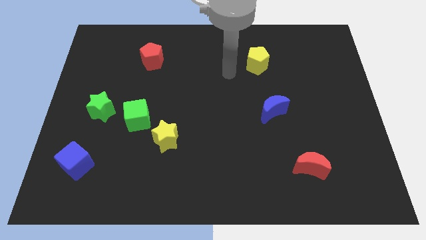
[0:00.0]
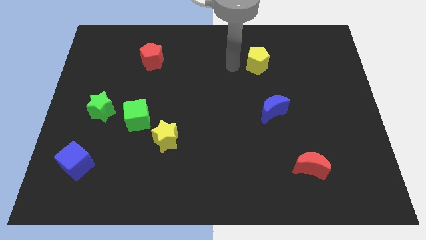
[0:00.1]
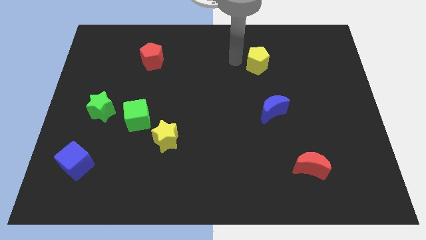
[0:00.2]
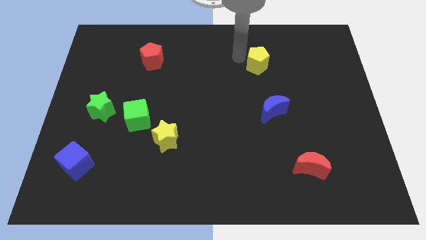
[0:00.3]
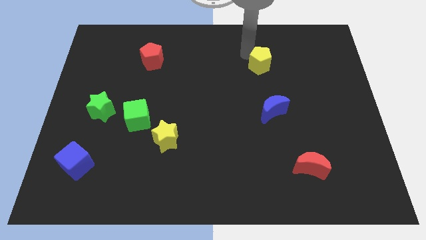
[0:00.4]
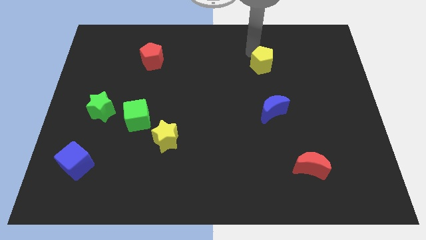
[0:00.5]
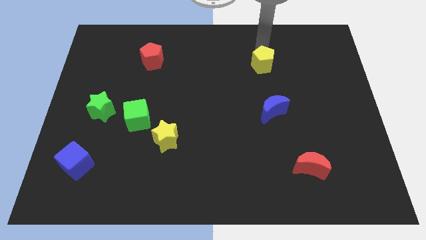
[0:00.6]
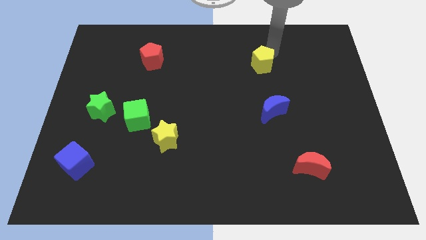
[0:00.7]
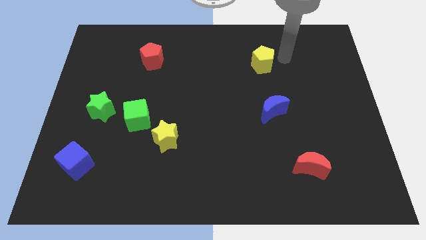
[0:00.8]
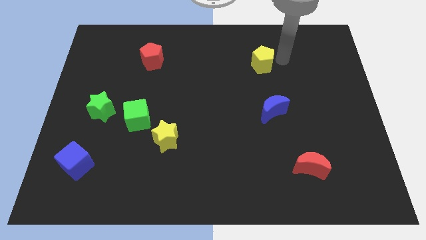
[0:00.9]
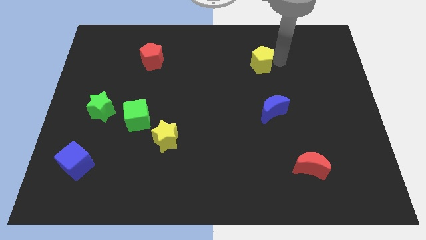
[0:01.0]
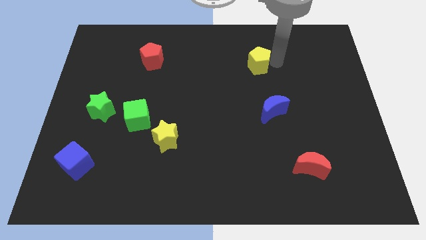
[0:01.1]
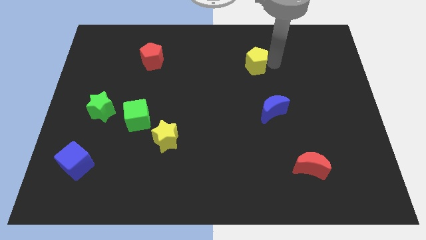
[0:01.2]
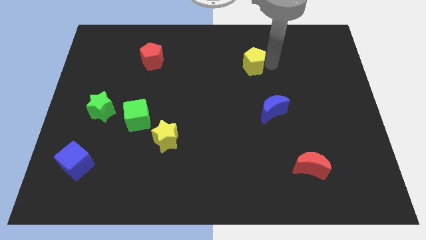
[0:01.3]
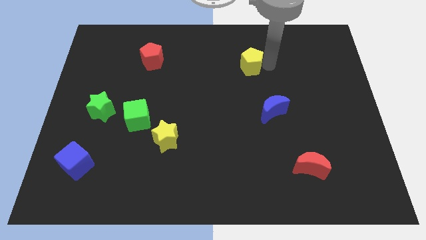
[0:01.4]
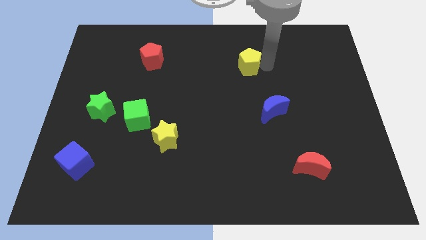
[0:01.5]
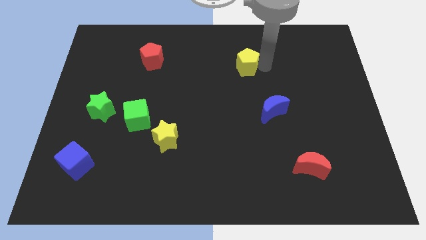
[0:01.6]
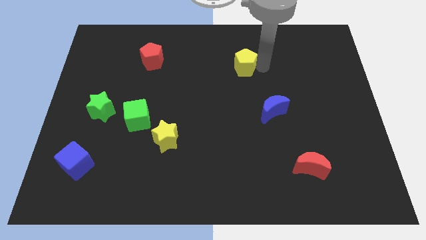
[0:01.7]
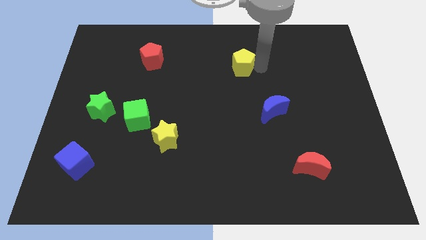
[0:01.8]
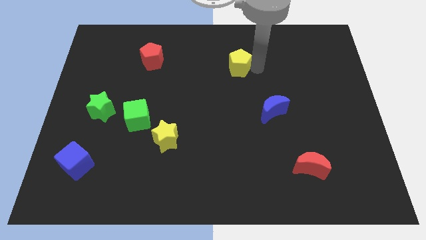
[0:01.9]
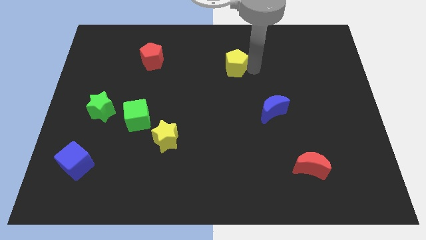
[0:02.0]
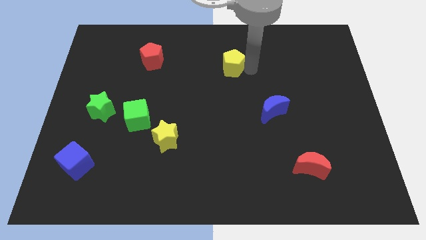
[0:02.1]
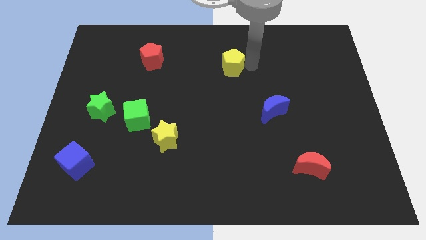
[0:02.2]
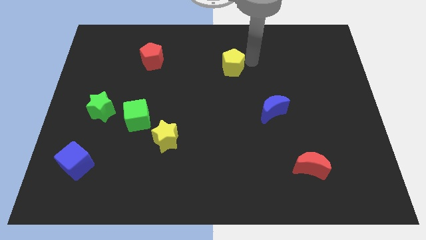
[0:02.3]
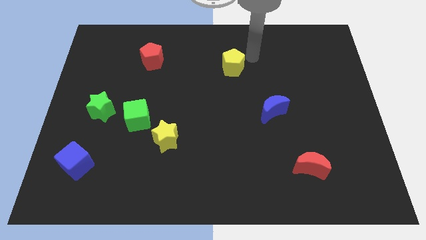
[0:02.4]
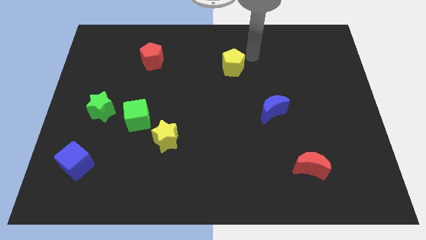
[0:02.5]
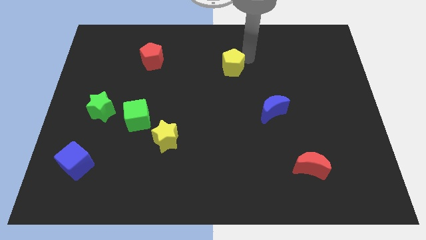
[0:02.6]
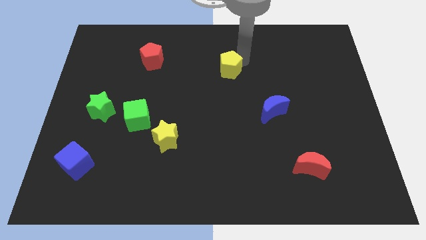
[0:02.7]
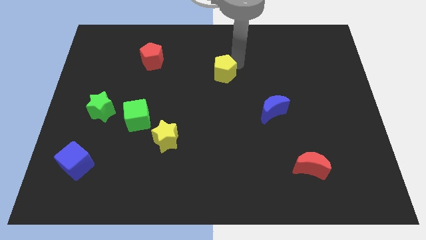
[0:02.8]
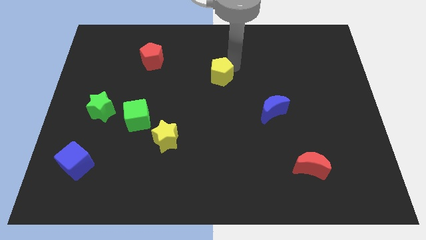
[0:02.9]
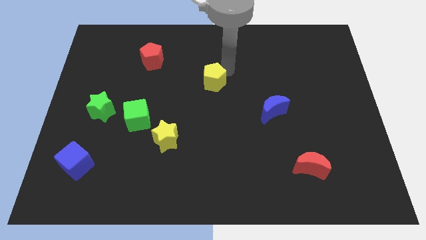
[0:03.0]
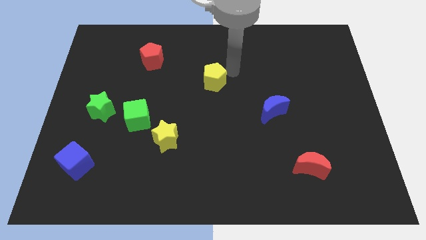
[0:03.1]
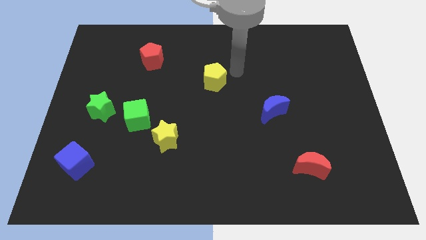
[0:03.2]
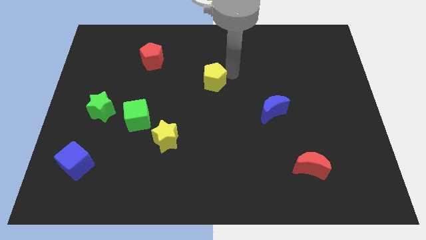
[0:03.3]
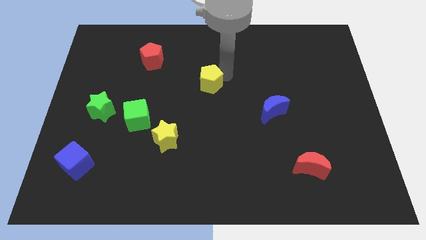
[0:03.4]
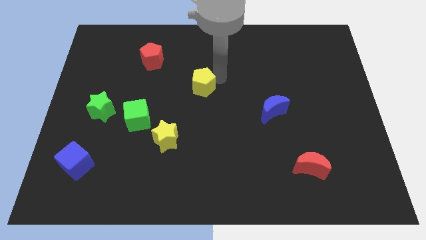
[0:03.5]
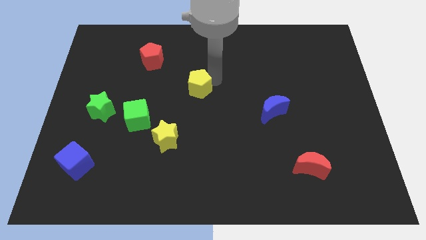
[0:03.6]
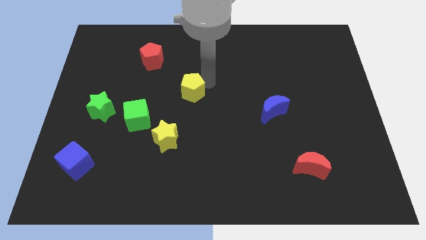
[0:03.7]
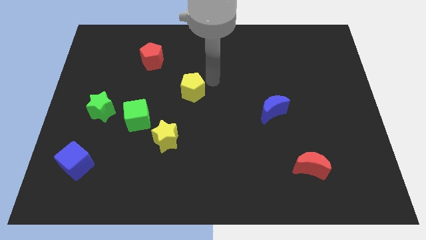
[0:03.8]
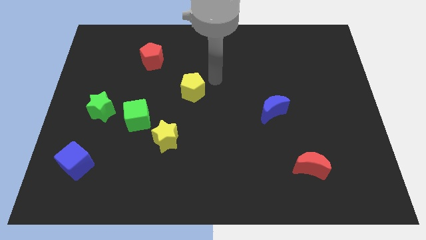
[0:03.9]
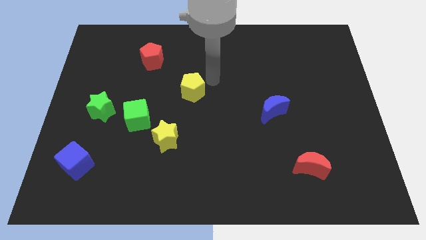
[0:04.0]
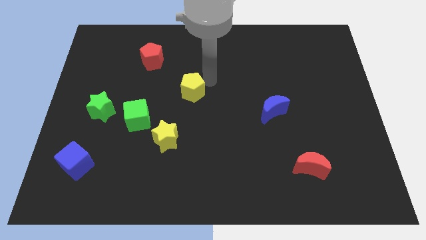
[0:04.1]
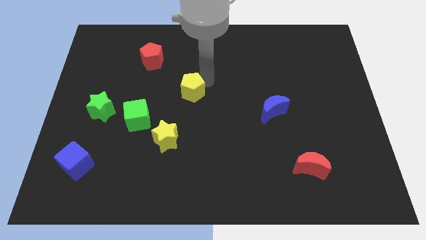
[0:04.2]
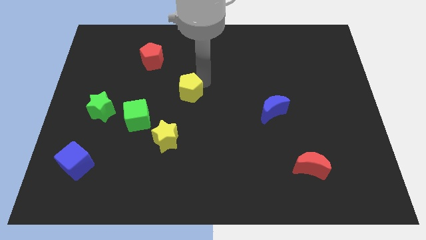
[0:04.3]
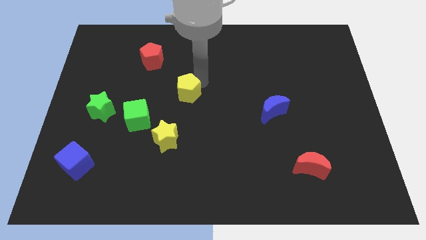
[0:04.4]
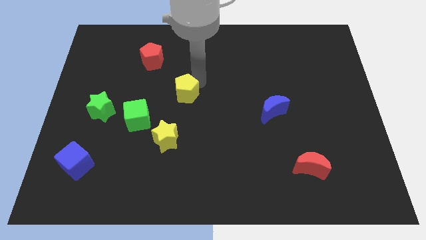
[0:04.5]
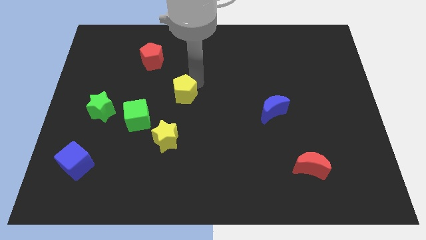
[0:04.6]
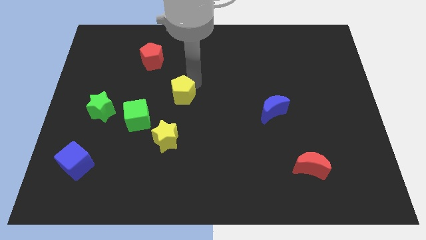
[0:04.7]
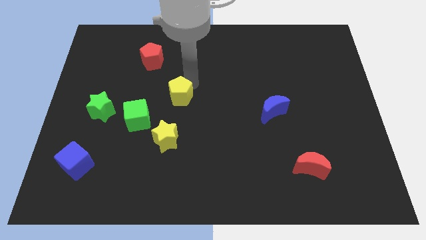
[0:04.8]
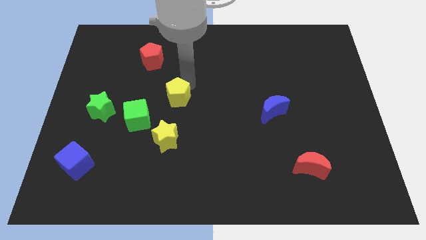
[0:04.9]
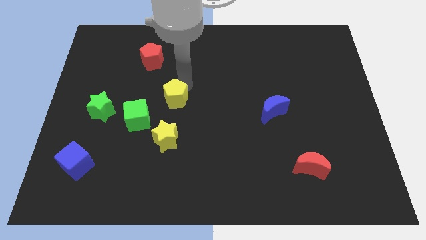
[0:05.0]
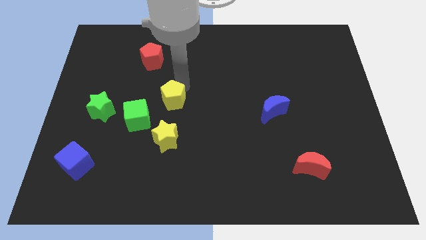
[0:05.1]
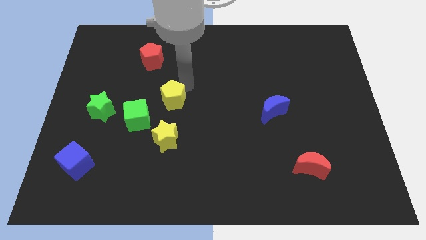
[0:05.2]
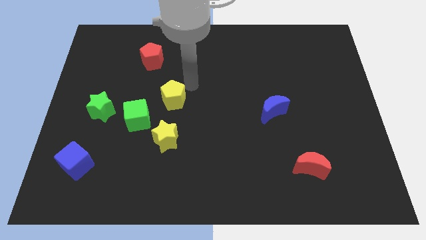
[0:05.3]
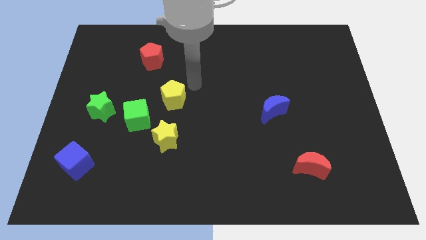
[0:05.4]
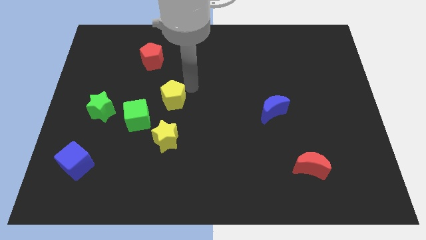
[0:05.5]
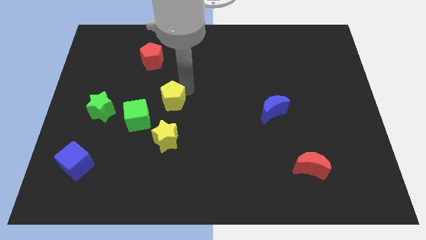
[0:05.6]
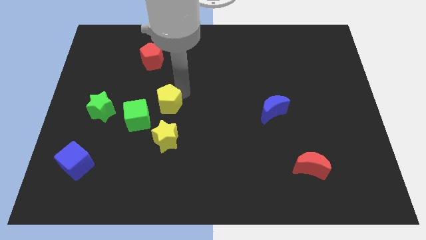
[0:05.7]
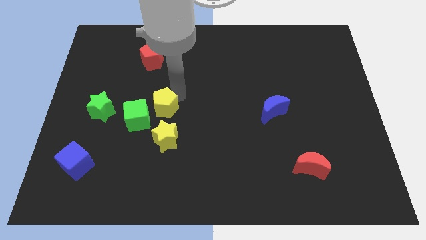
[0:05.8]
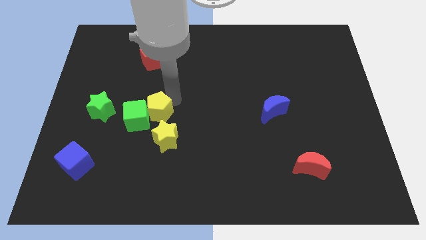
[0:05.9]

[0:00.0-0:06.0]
slide the yellow pentagon to the green cube

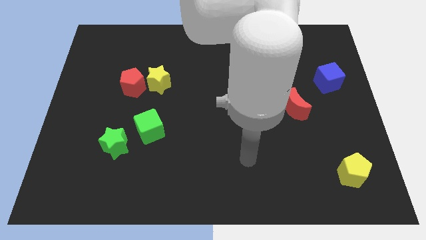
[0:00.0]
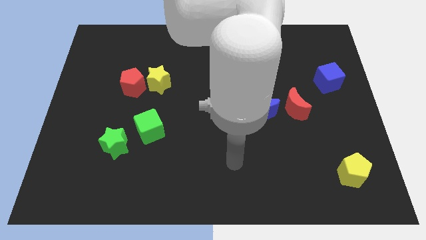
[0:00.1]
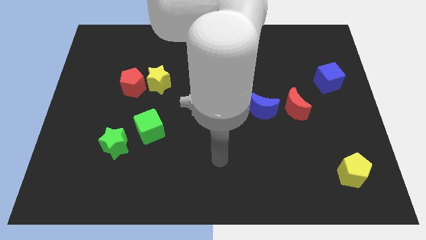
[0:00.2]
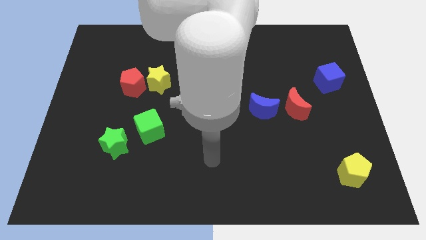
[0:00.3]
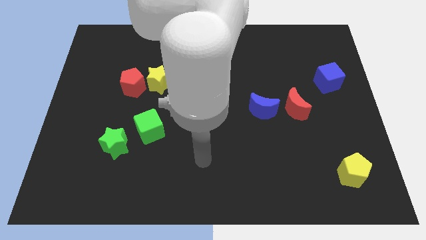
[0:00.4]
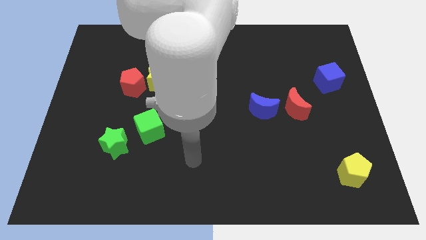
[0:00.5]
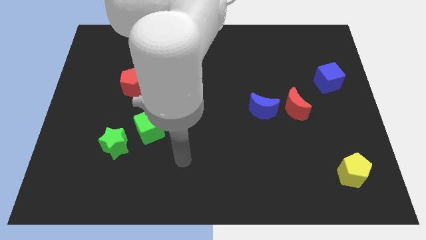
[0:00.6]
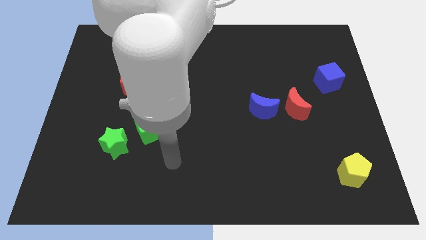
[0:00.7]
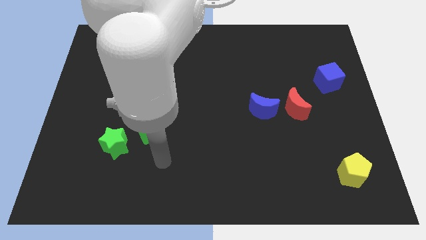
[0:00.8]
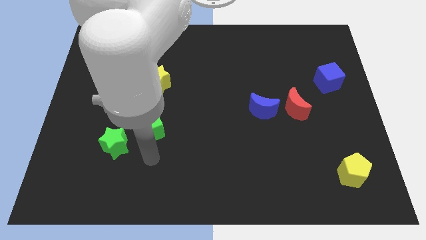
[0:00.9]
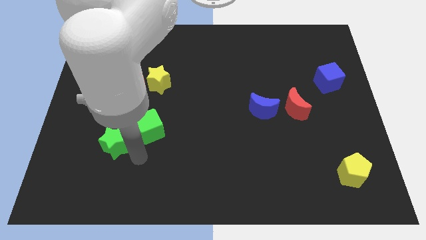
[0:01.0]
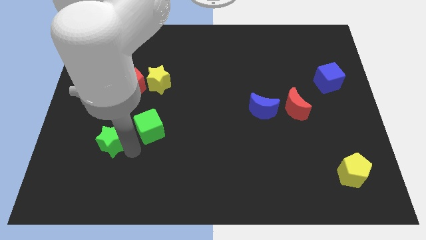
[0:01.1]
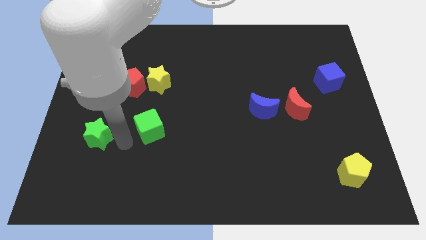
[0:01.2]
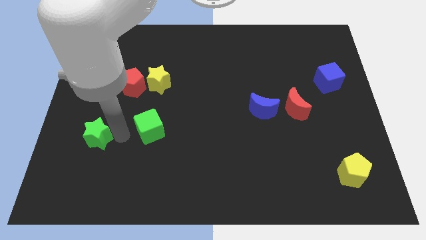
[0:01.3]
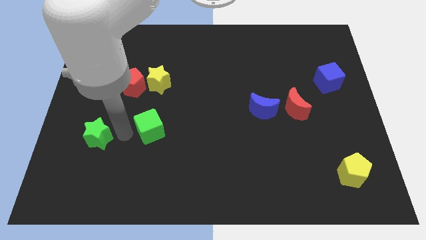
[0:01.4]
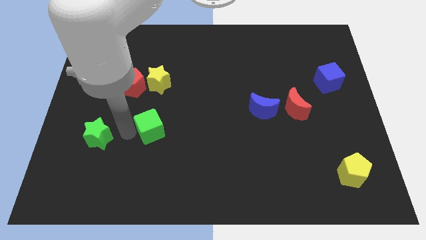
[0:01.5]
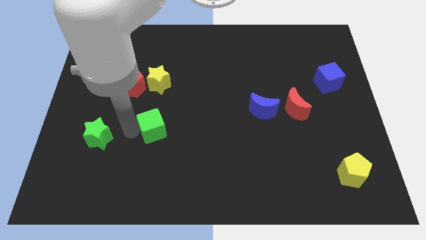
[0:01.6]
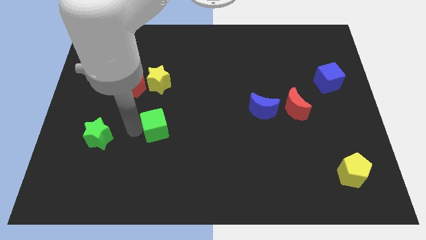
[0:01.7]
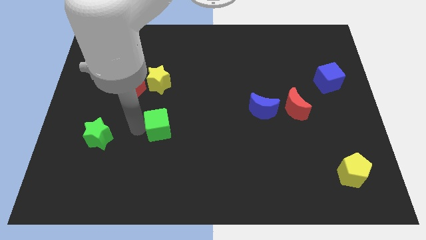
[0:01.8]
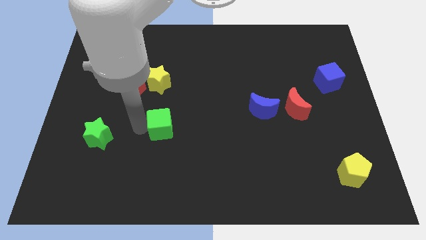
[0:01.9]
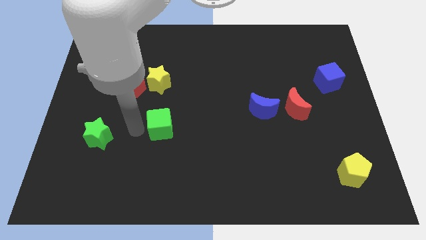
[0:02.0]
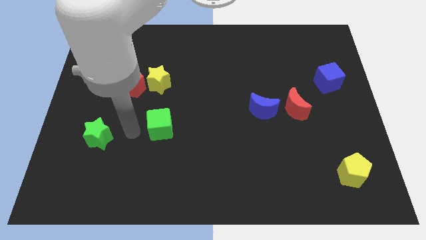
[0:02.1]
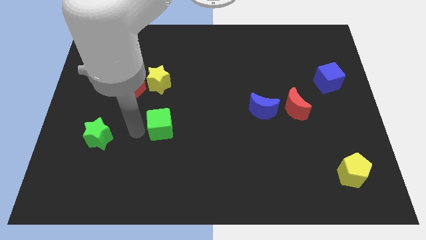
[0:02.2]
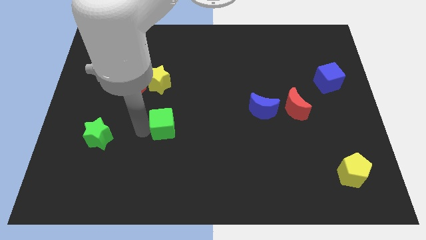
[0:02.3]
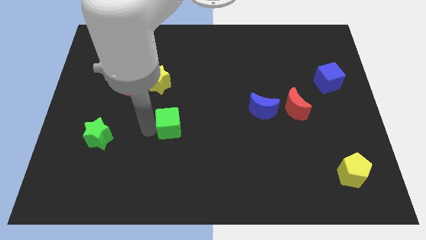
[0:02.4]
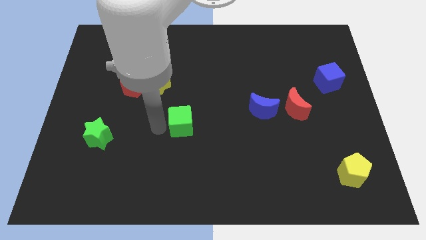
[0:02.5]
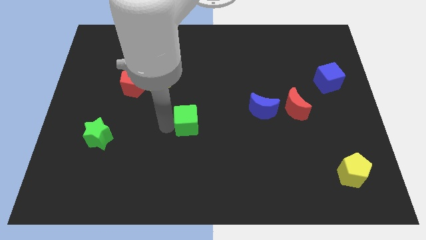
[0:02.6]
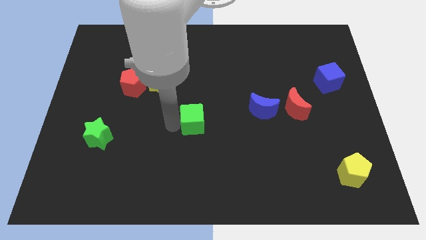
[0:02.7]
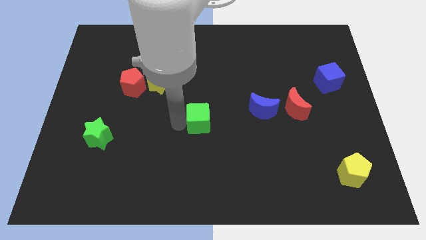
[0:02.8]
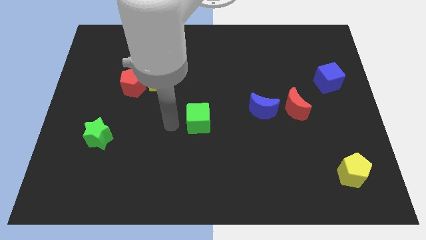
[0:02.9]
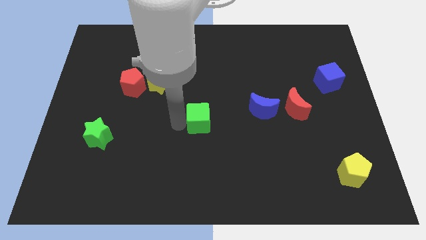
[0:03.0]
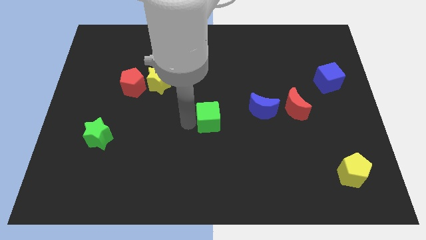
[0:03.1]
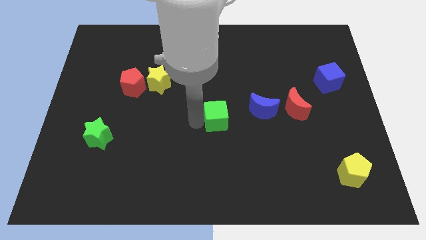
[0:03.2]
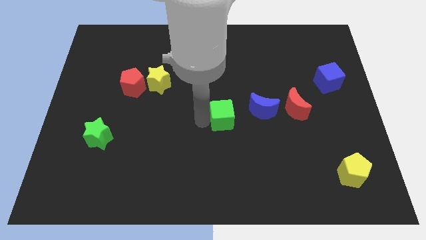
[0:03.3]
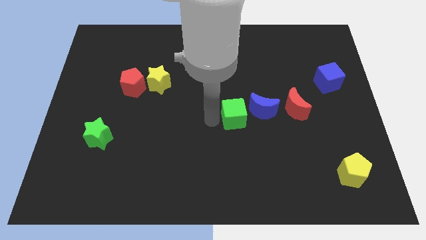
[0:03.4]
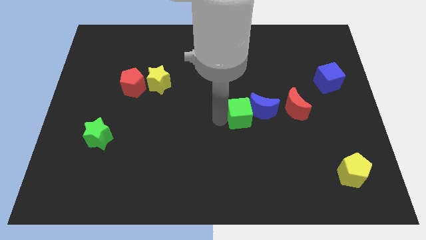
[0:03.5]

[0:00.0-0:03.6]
slide the green cube towards the blue moon
